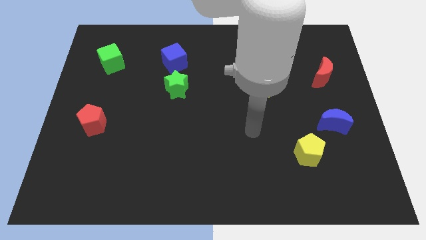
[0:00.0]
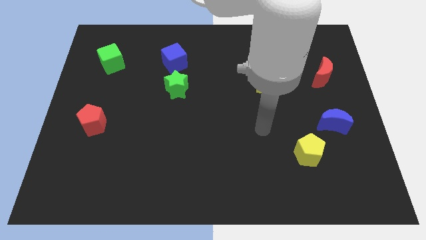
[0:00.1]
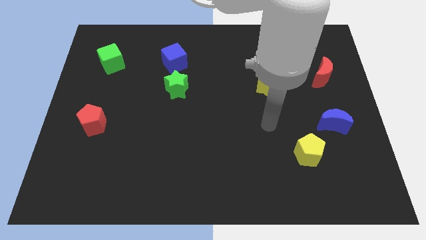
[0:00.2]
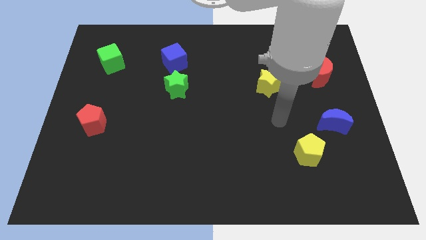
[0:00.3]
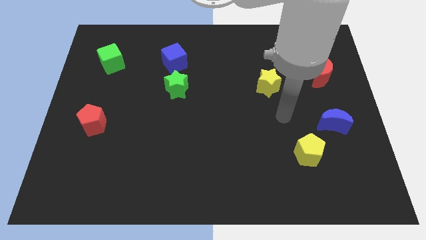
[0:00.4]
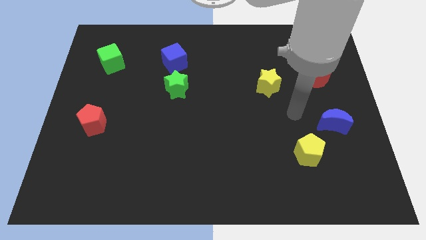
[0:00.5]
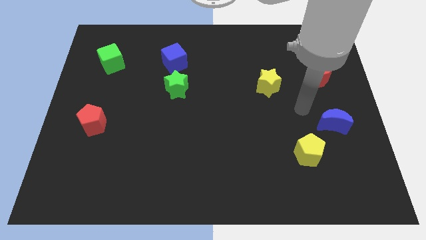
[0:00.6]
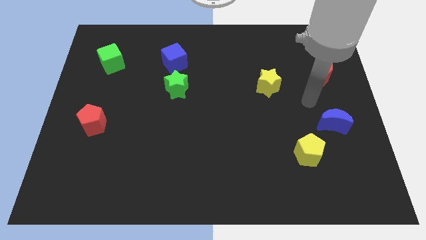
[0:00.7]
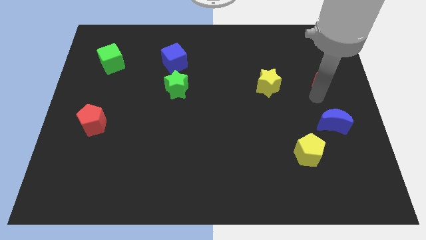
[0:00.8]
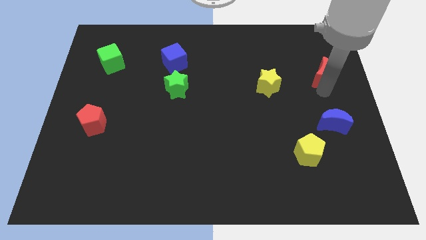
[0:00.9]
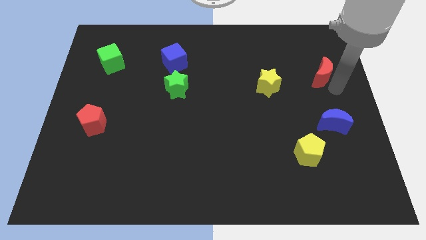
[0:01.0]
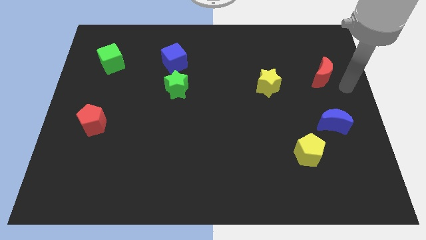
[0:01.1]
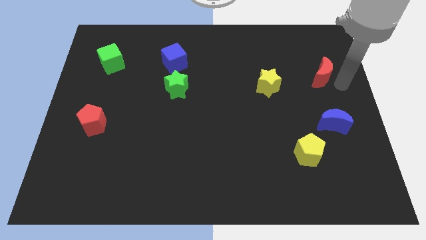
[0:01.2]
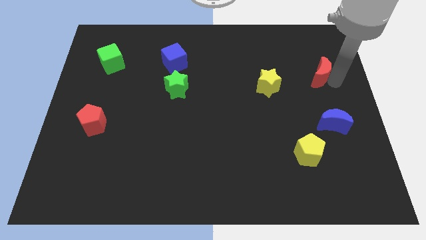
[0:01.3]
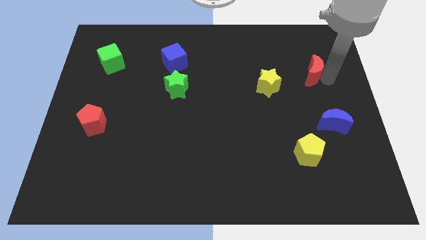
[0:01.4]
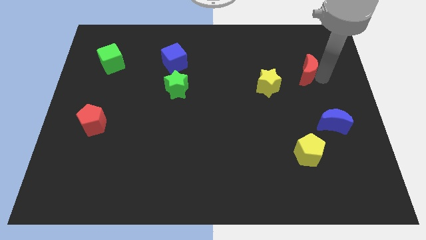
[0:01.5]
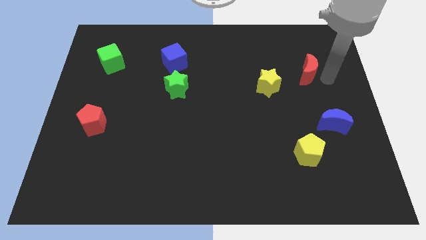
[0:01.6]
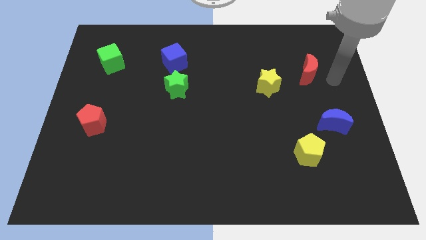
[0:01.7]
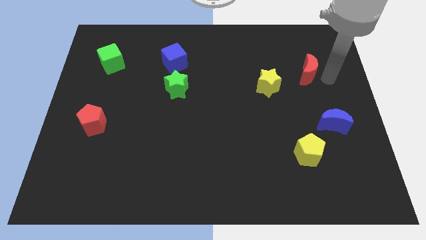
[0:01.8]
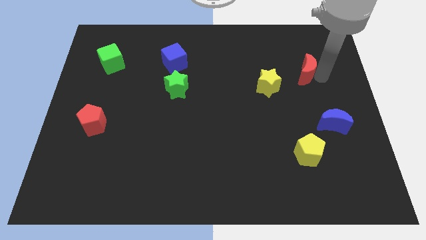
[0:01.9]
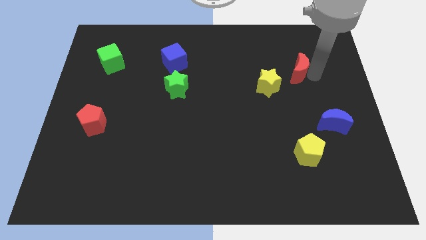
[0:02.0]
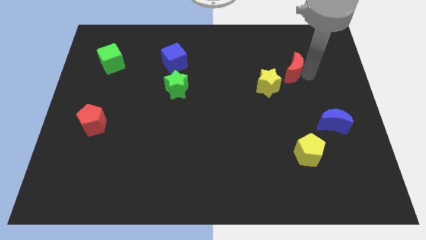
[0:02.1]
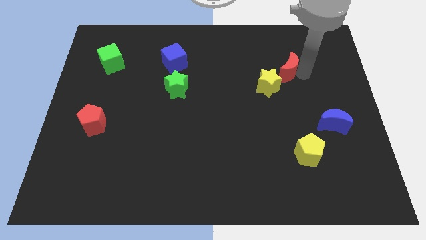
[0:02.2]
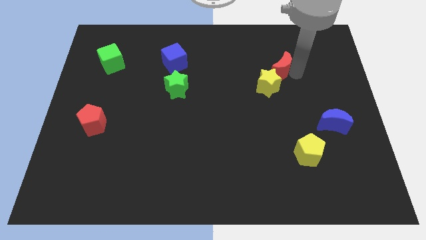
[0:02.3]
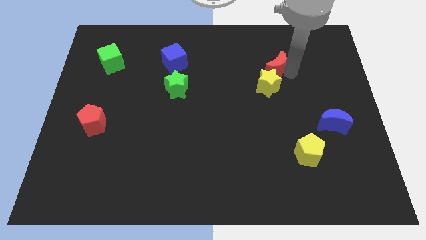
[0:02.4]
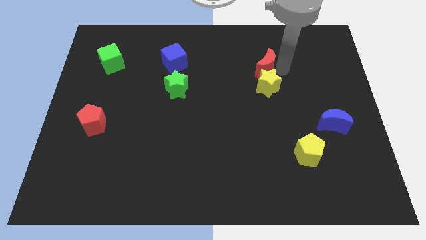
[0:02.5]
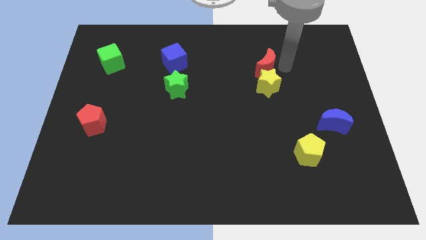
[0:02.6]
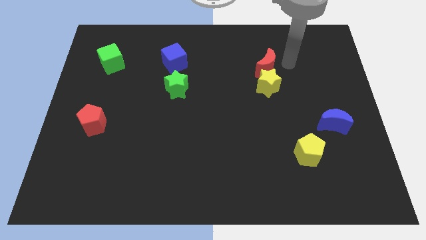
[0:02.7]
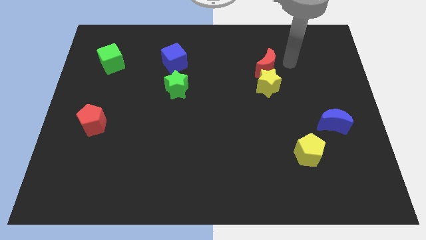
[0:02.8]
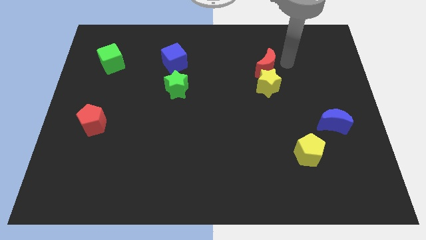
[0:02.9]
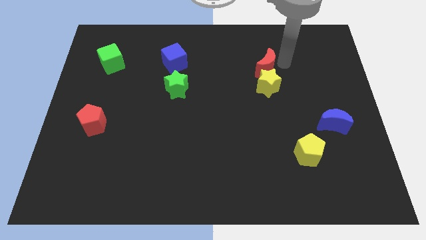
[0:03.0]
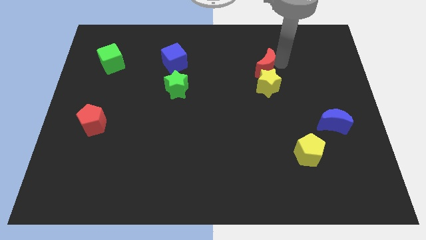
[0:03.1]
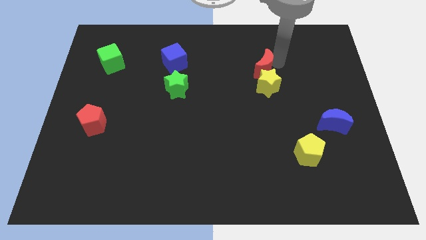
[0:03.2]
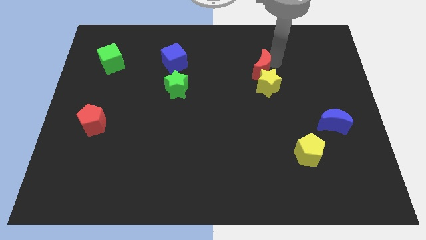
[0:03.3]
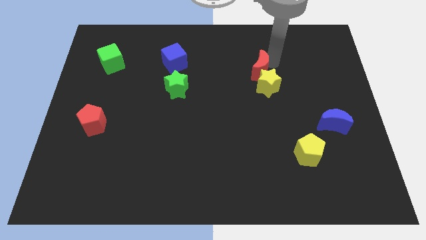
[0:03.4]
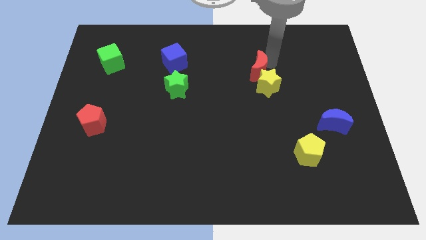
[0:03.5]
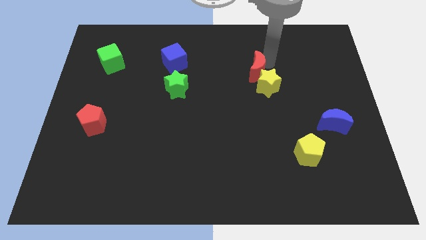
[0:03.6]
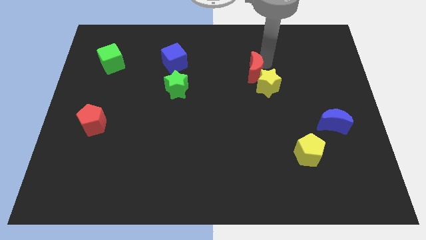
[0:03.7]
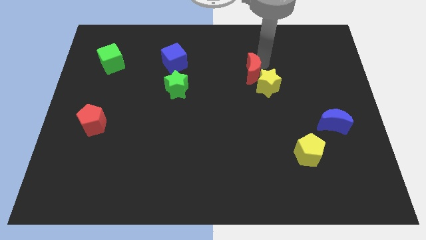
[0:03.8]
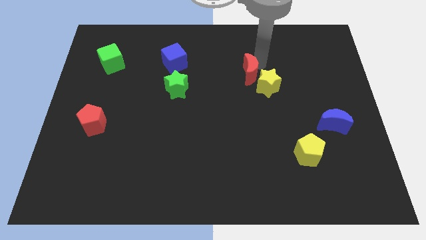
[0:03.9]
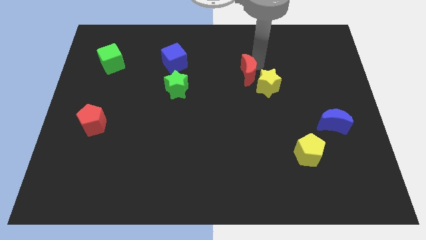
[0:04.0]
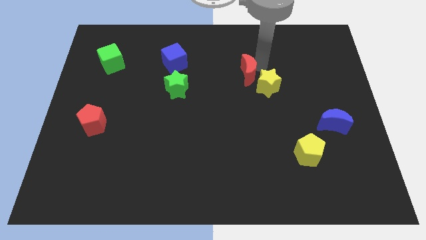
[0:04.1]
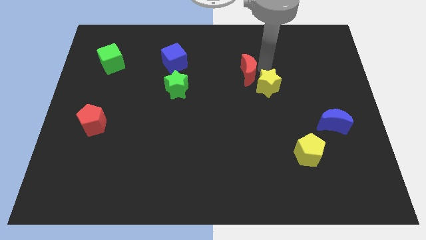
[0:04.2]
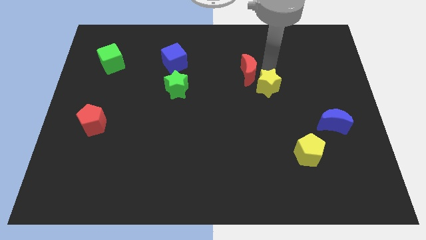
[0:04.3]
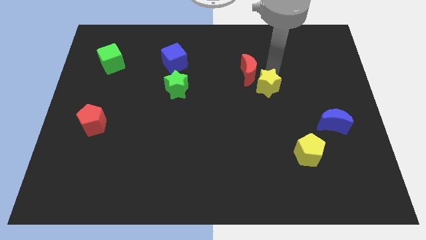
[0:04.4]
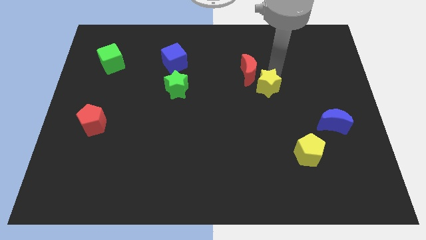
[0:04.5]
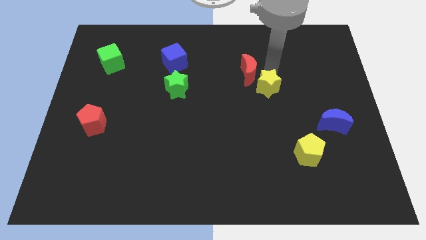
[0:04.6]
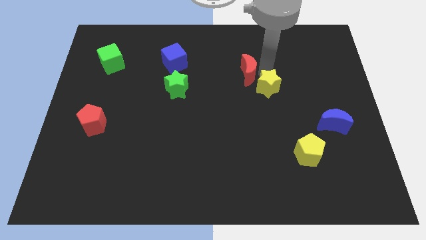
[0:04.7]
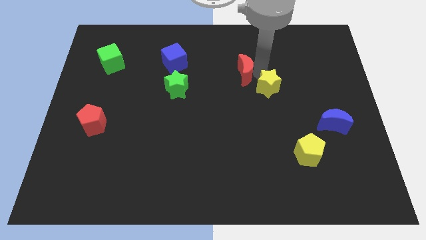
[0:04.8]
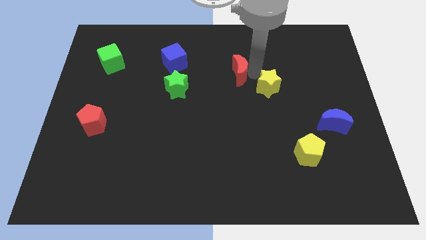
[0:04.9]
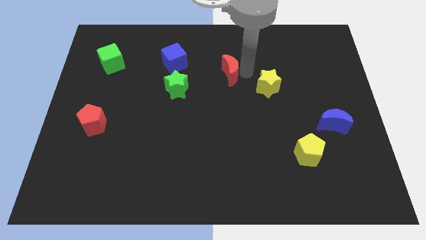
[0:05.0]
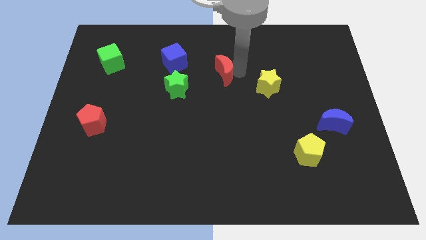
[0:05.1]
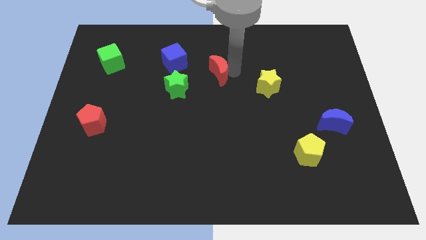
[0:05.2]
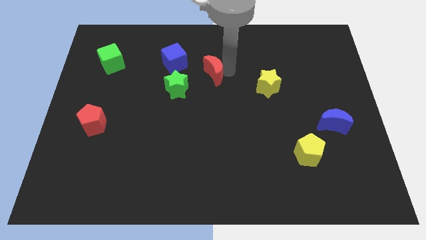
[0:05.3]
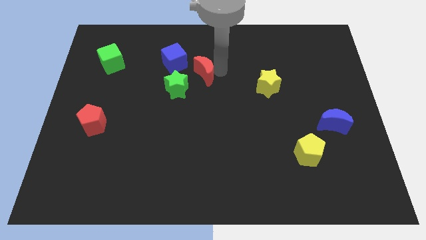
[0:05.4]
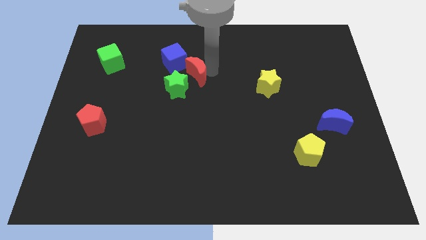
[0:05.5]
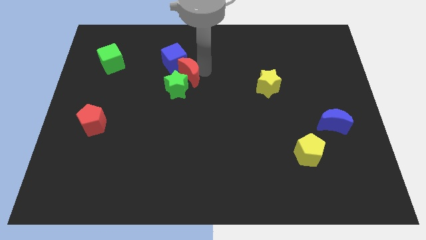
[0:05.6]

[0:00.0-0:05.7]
put the red moon to the green star

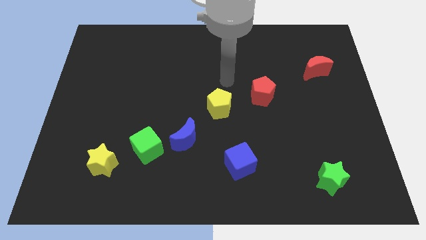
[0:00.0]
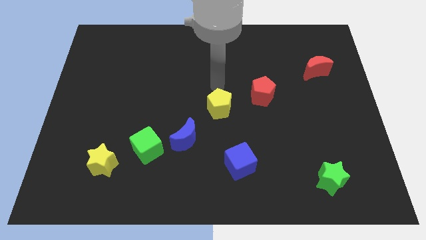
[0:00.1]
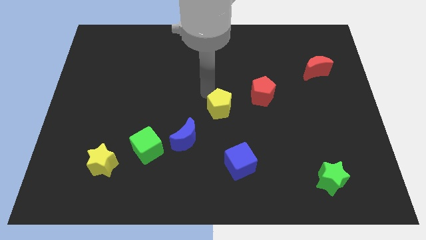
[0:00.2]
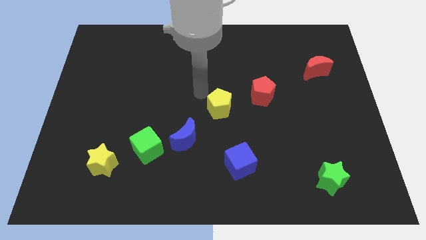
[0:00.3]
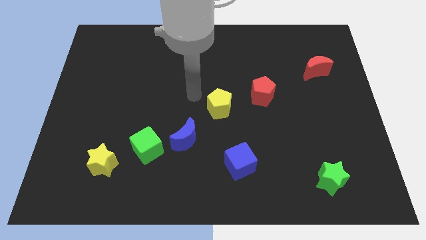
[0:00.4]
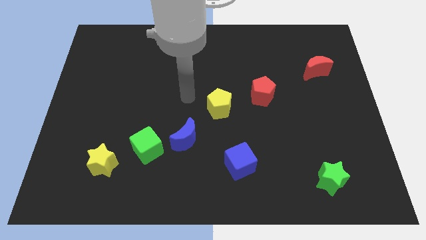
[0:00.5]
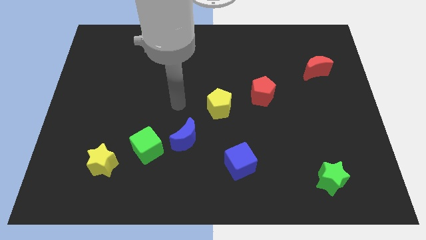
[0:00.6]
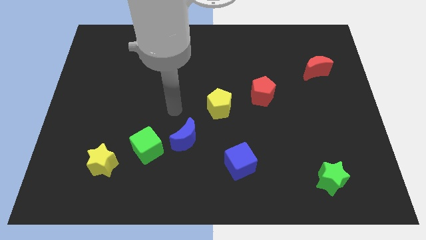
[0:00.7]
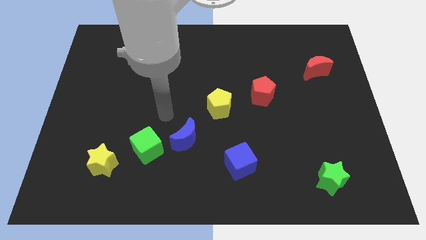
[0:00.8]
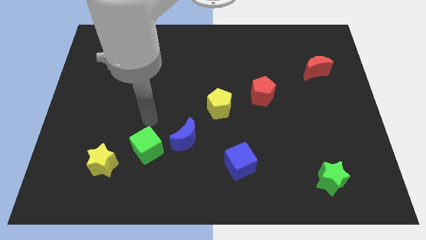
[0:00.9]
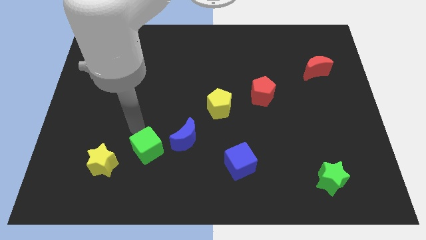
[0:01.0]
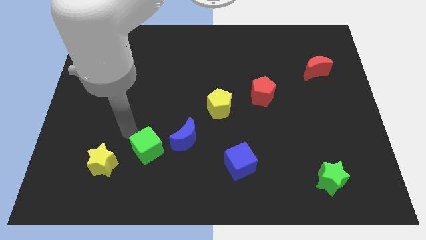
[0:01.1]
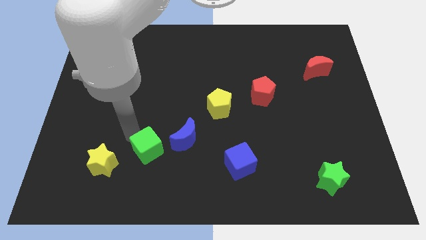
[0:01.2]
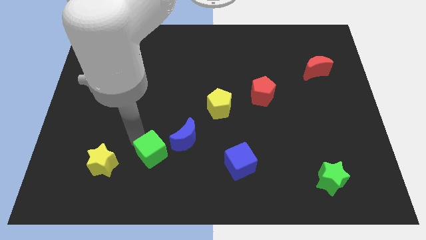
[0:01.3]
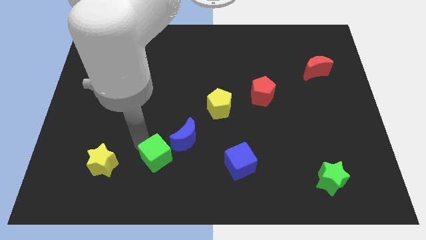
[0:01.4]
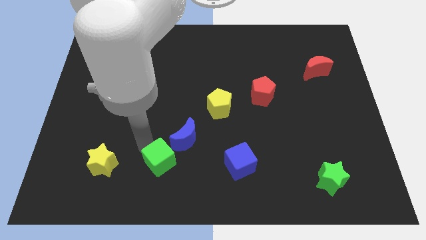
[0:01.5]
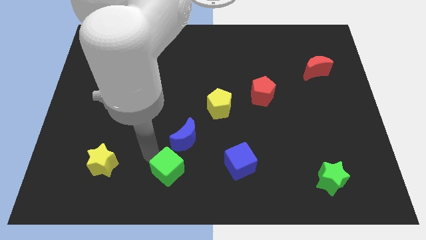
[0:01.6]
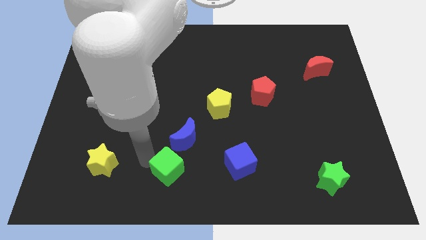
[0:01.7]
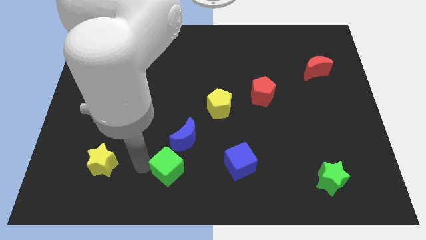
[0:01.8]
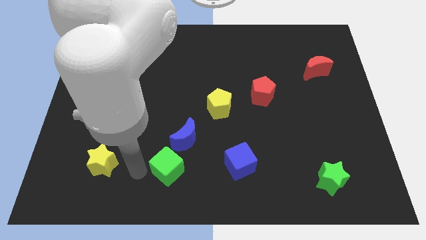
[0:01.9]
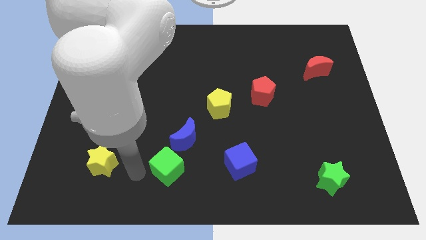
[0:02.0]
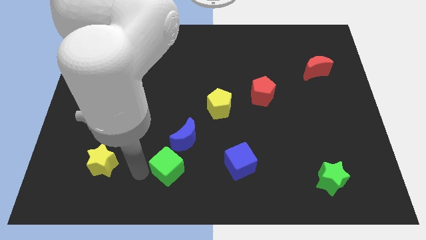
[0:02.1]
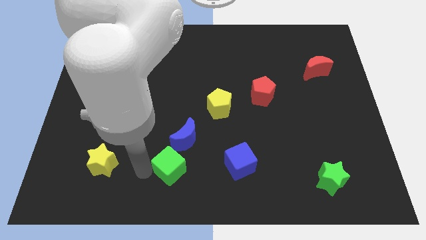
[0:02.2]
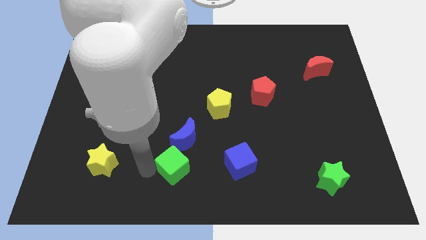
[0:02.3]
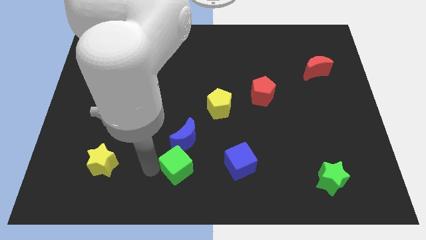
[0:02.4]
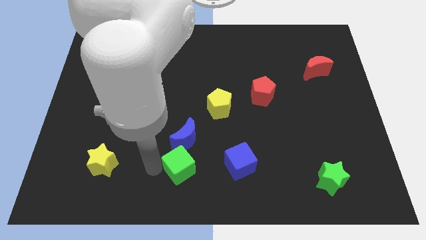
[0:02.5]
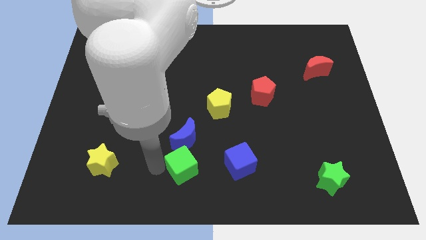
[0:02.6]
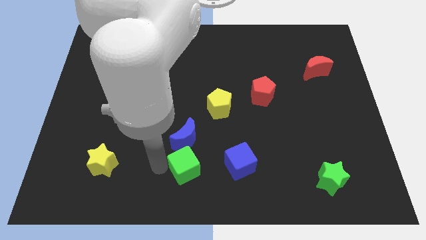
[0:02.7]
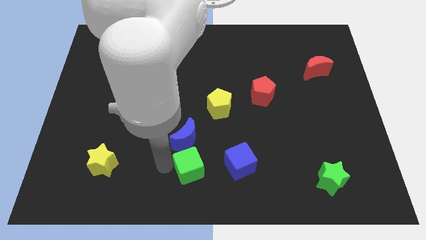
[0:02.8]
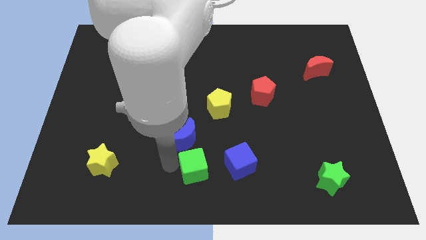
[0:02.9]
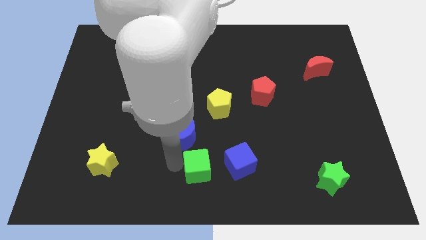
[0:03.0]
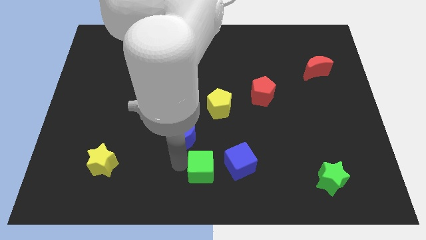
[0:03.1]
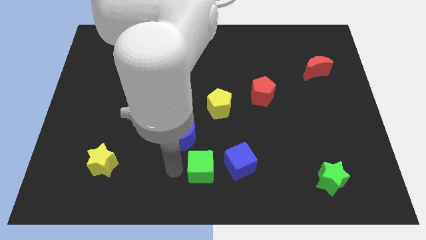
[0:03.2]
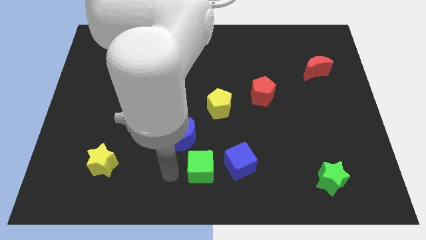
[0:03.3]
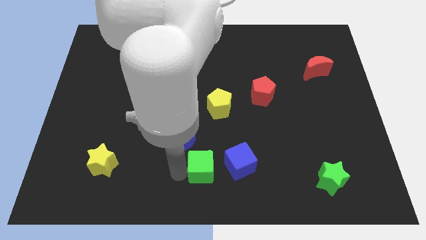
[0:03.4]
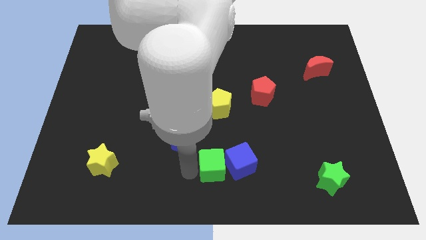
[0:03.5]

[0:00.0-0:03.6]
push the green cube close to the blue cube
